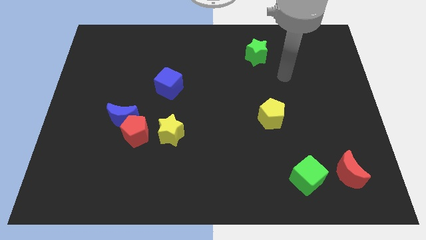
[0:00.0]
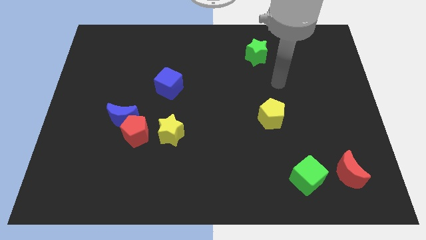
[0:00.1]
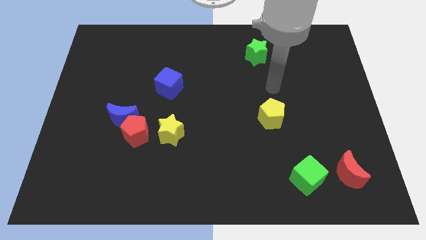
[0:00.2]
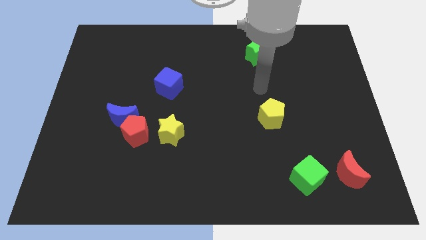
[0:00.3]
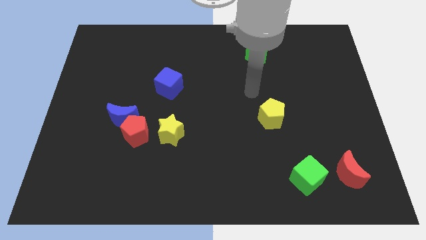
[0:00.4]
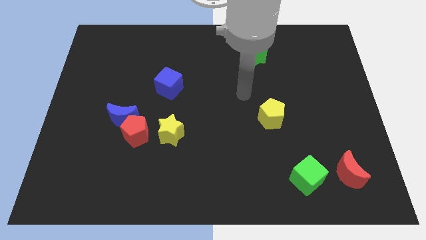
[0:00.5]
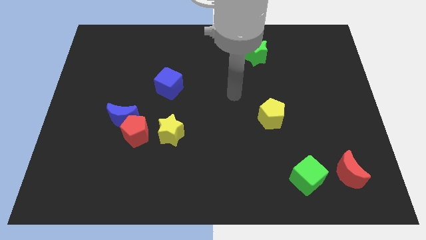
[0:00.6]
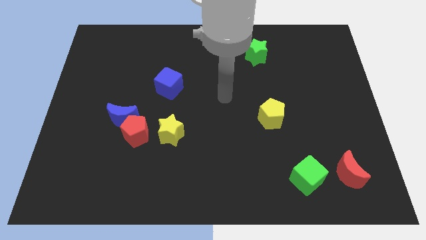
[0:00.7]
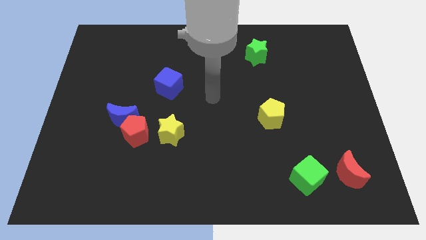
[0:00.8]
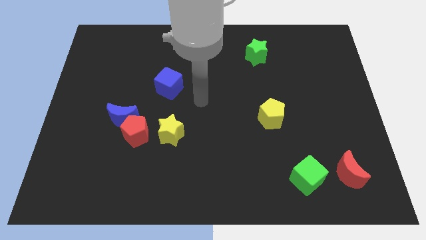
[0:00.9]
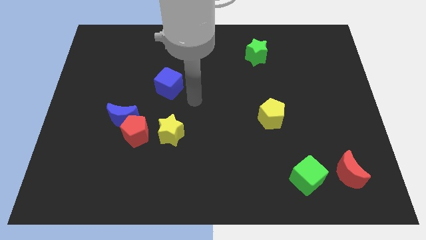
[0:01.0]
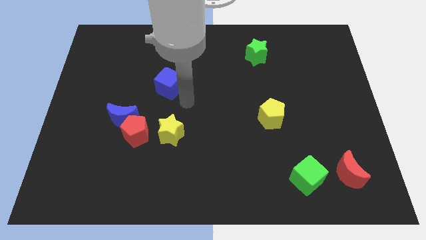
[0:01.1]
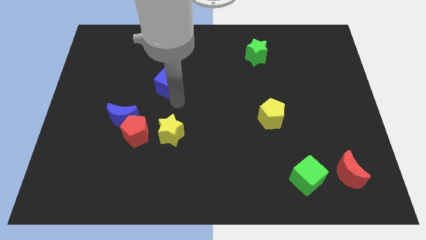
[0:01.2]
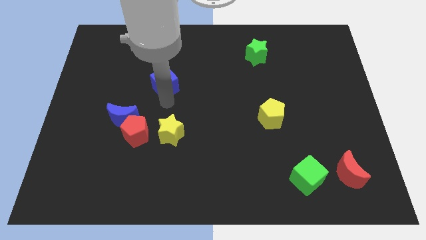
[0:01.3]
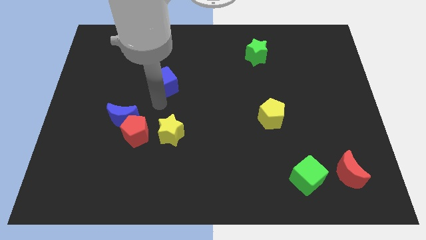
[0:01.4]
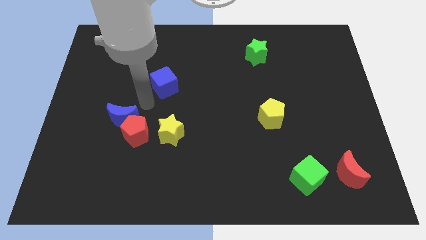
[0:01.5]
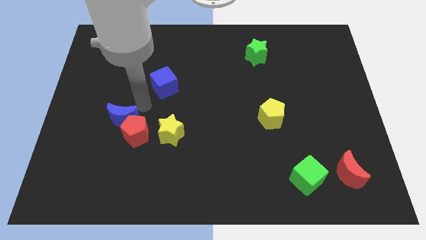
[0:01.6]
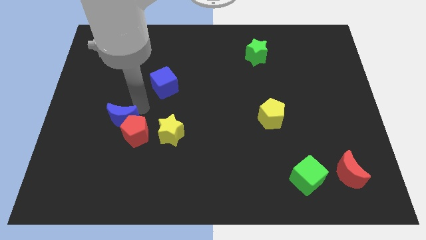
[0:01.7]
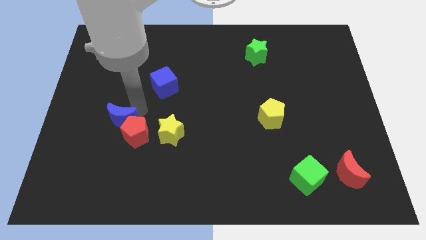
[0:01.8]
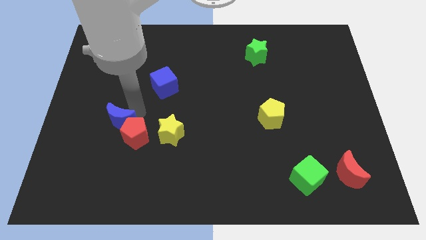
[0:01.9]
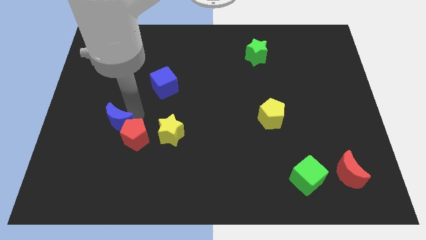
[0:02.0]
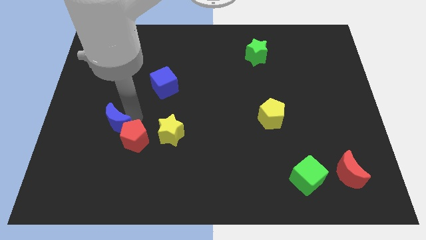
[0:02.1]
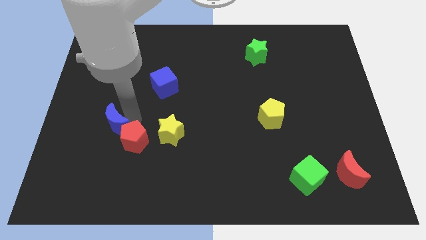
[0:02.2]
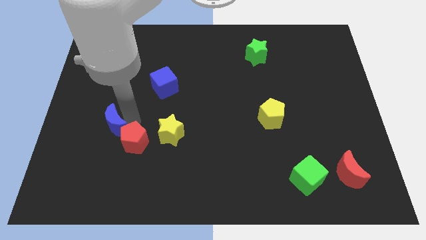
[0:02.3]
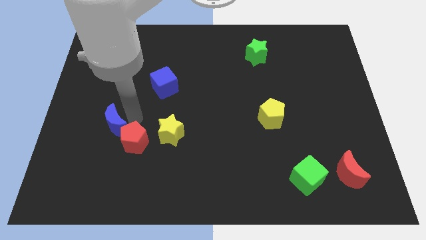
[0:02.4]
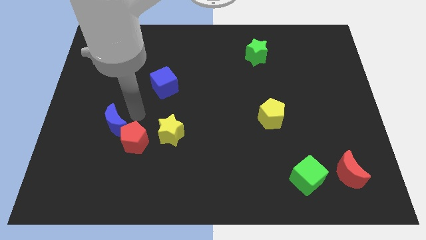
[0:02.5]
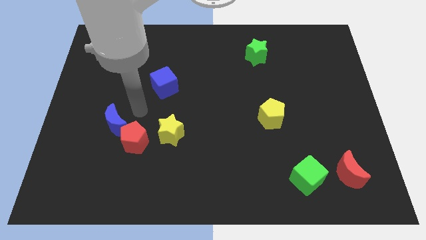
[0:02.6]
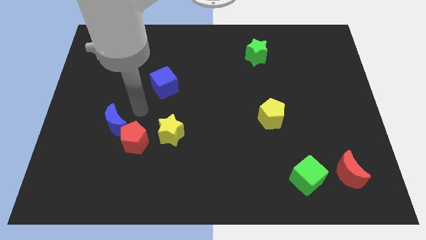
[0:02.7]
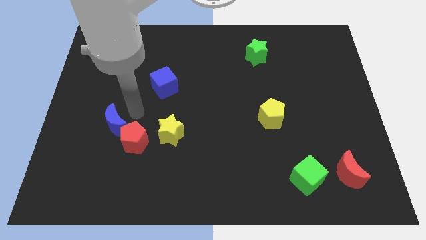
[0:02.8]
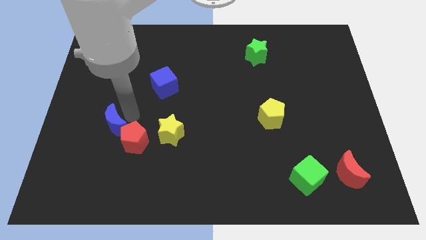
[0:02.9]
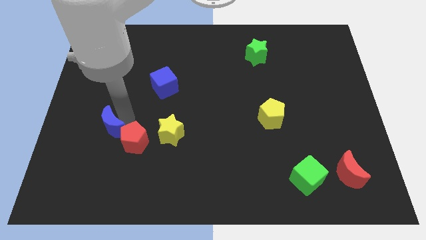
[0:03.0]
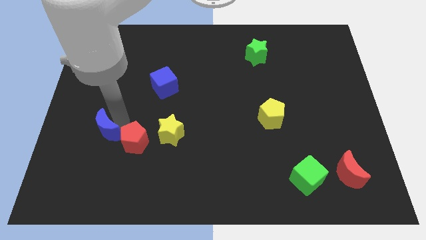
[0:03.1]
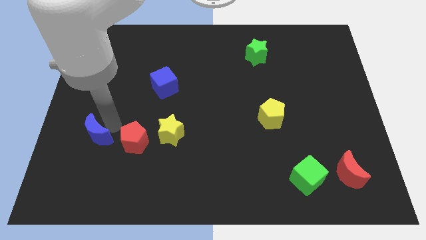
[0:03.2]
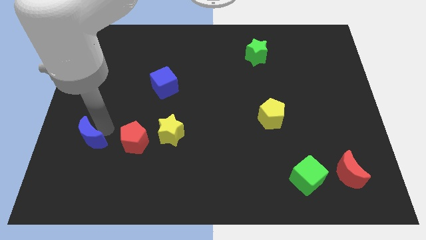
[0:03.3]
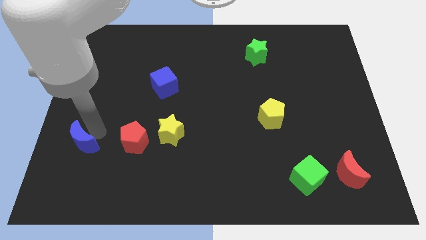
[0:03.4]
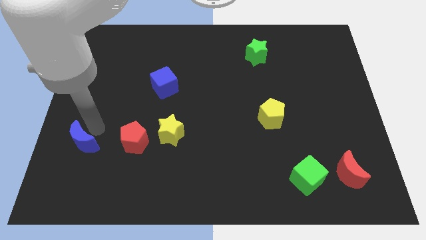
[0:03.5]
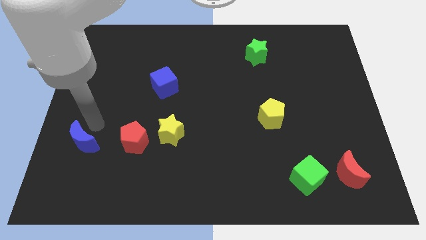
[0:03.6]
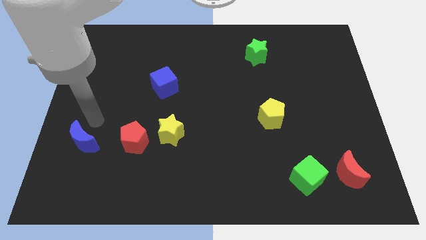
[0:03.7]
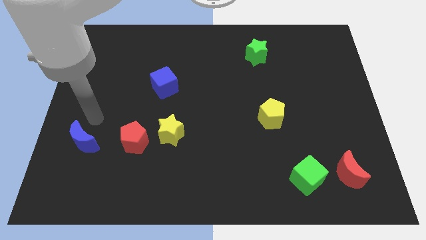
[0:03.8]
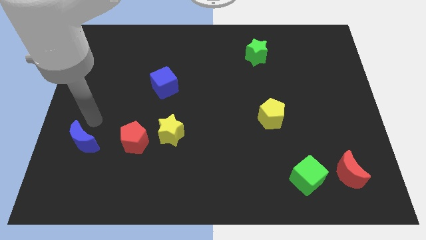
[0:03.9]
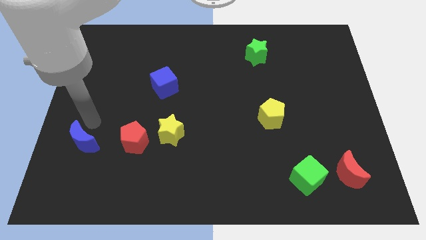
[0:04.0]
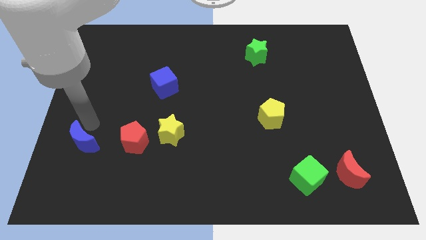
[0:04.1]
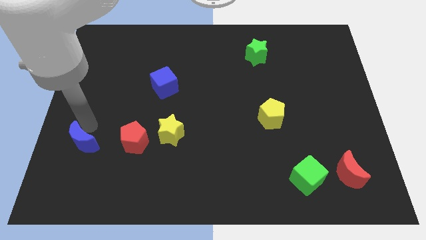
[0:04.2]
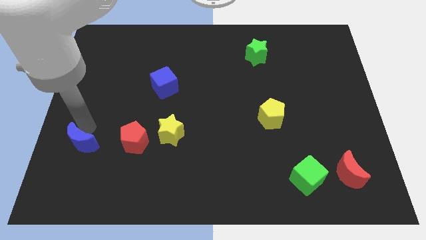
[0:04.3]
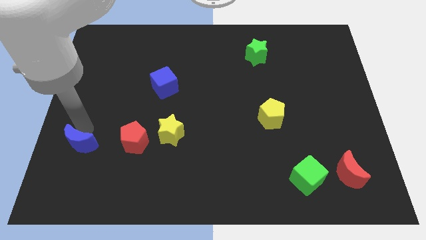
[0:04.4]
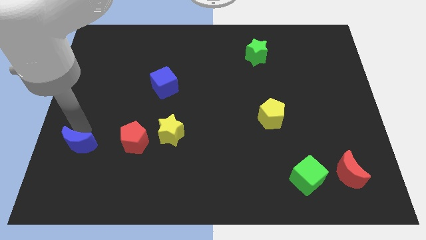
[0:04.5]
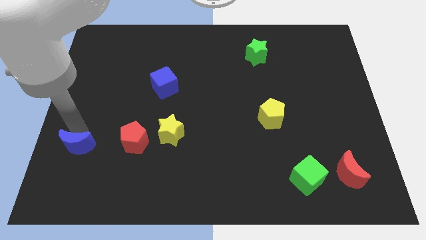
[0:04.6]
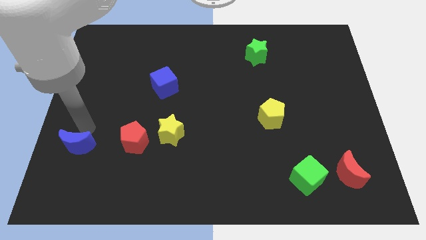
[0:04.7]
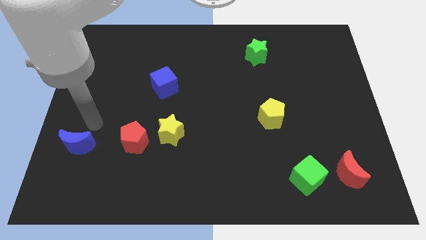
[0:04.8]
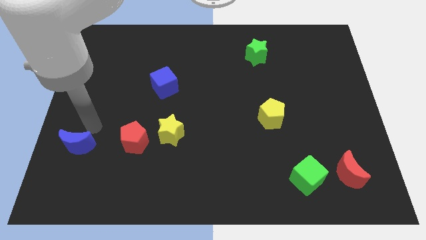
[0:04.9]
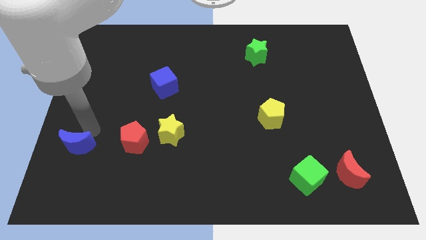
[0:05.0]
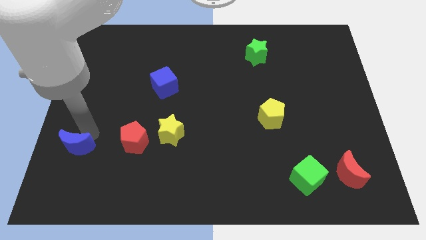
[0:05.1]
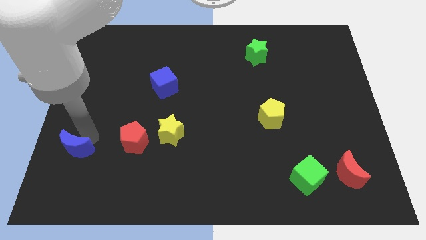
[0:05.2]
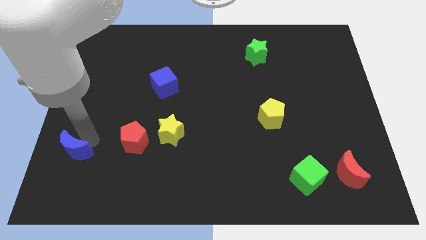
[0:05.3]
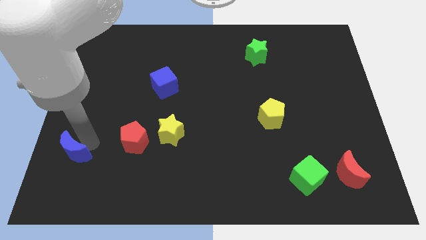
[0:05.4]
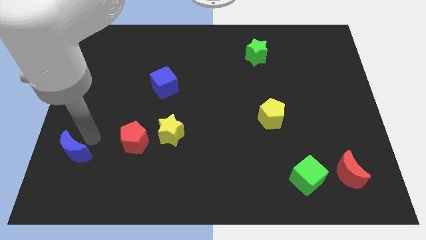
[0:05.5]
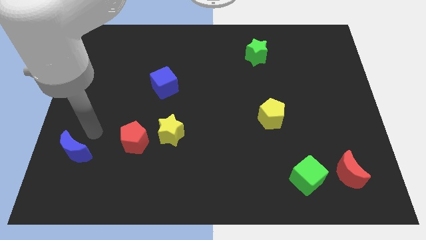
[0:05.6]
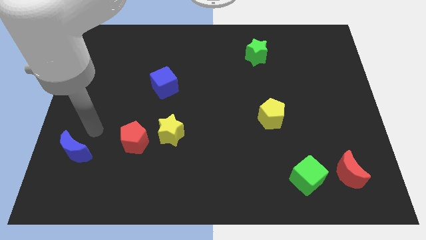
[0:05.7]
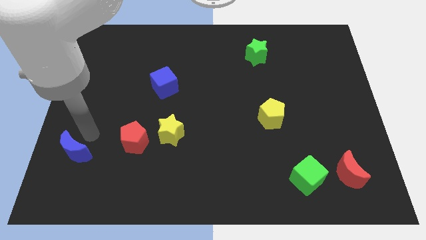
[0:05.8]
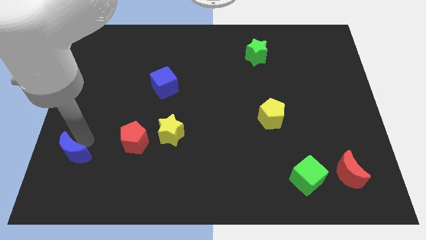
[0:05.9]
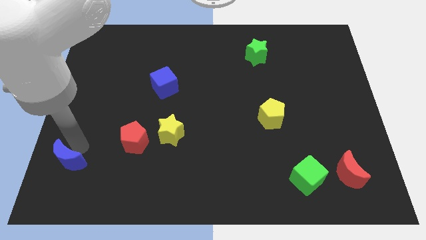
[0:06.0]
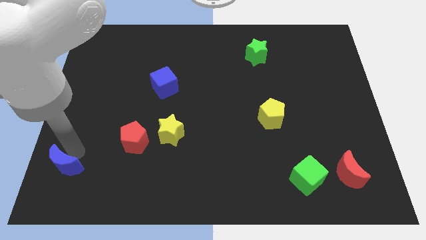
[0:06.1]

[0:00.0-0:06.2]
push the blue moon to the bottom left of the board
